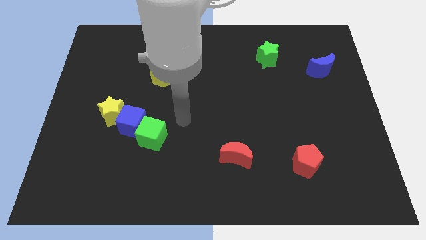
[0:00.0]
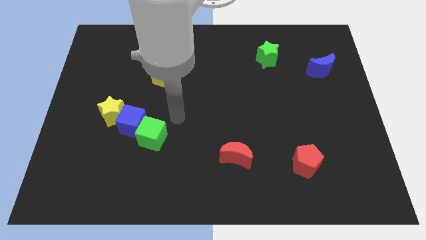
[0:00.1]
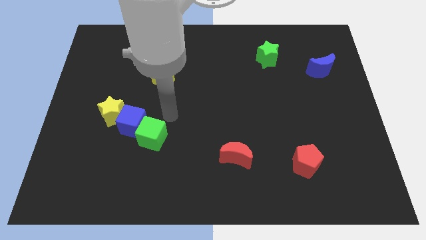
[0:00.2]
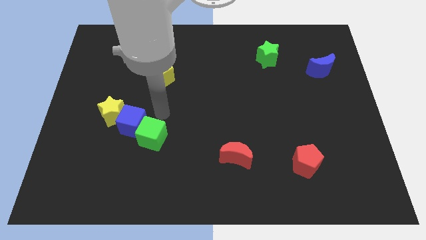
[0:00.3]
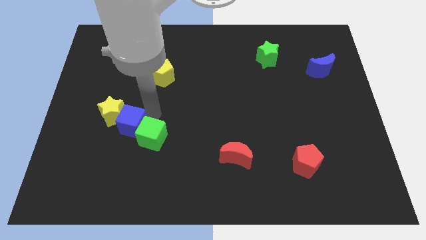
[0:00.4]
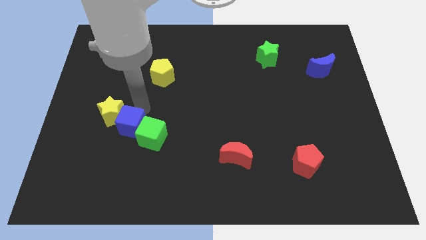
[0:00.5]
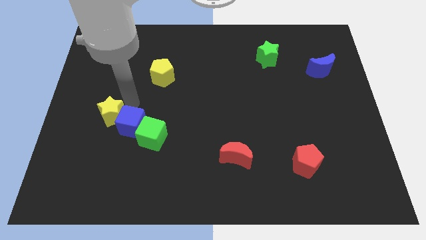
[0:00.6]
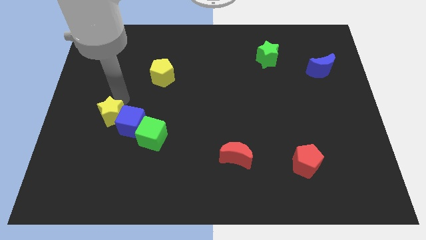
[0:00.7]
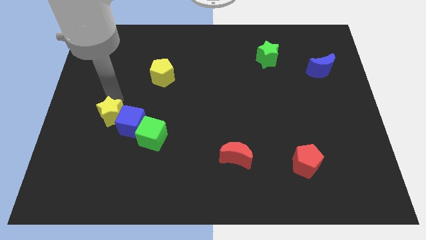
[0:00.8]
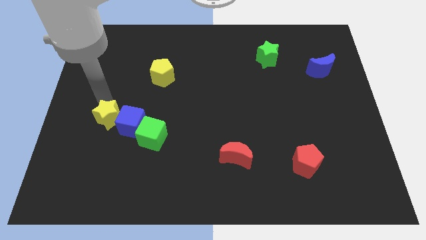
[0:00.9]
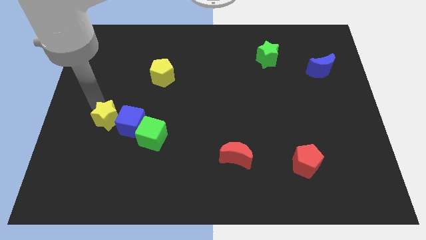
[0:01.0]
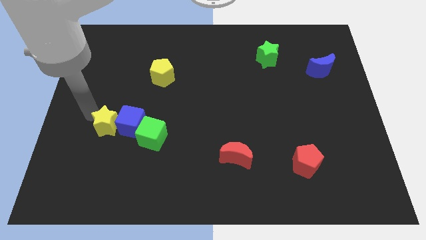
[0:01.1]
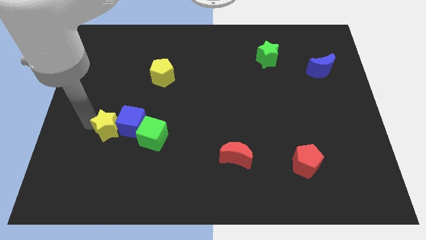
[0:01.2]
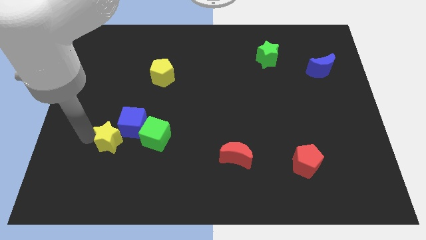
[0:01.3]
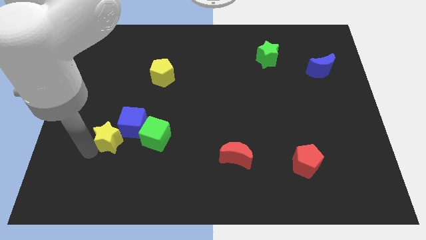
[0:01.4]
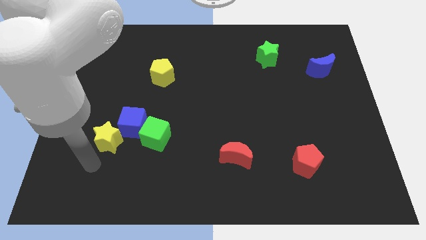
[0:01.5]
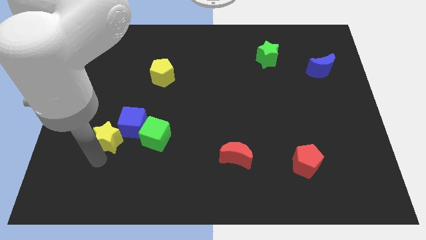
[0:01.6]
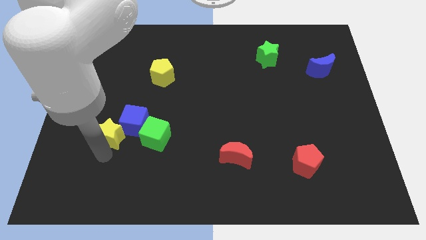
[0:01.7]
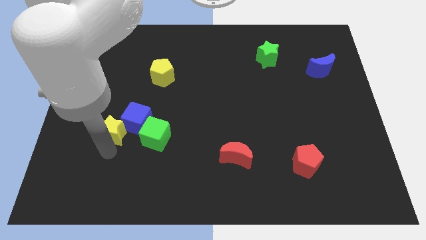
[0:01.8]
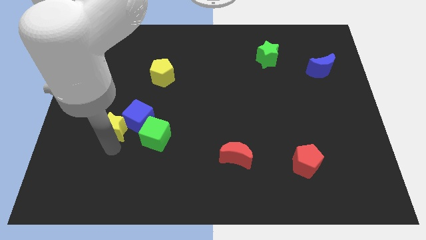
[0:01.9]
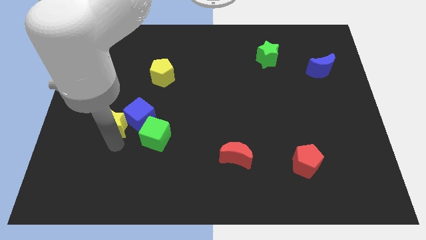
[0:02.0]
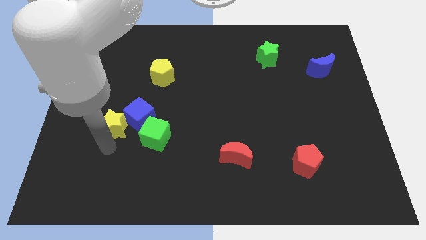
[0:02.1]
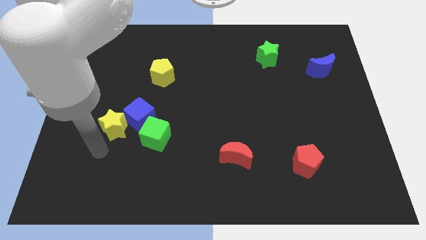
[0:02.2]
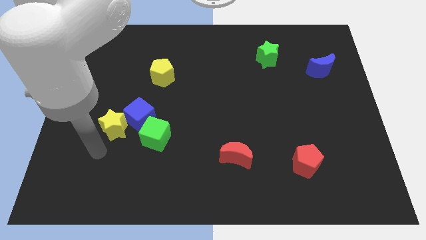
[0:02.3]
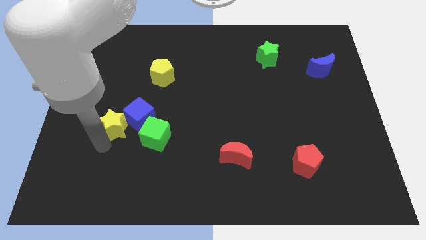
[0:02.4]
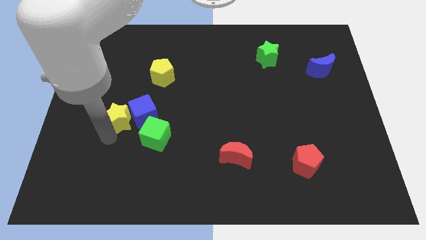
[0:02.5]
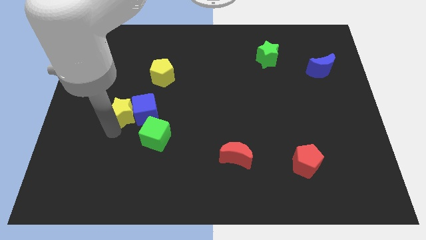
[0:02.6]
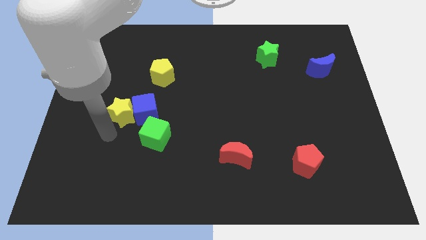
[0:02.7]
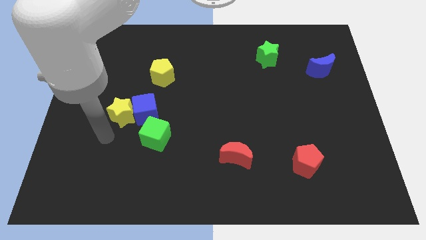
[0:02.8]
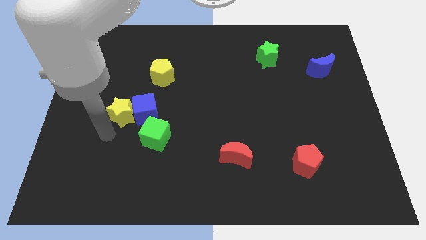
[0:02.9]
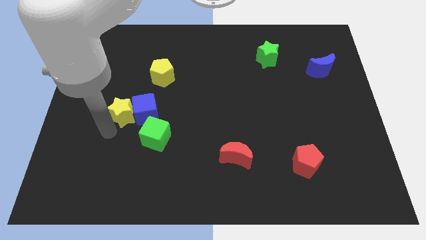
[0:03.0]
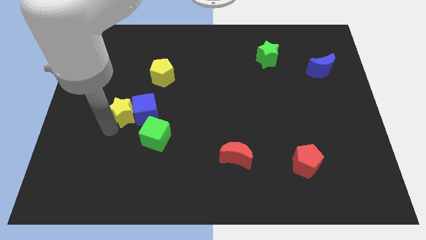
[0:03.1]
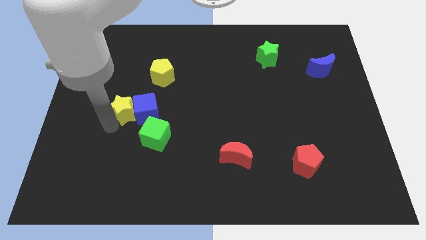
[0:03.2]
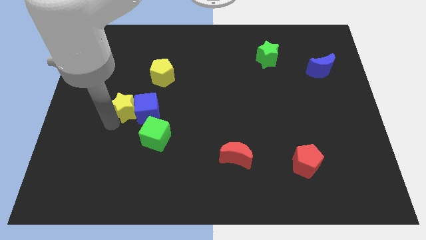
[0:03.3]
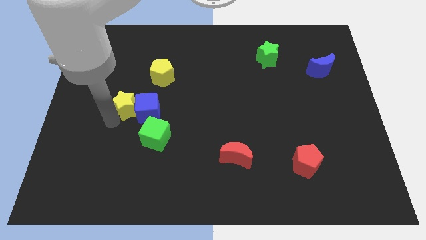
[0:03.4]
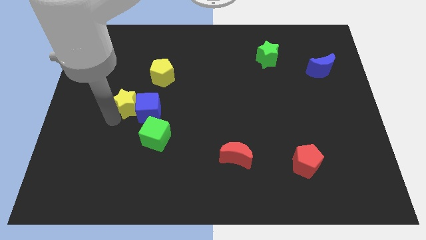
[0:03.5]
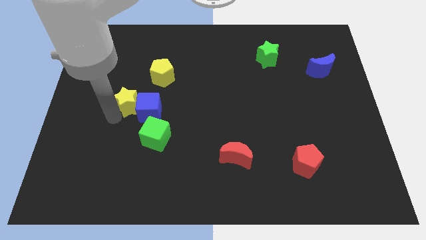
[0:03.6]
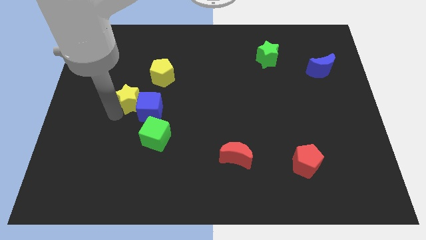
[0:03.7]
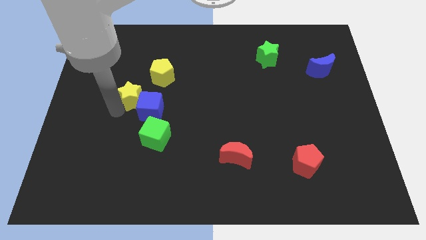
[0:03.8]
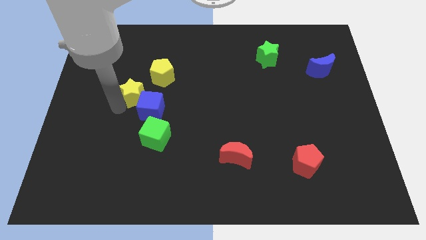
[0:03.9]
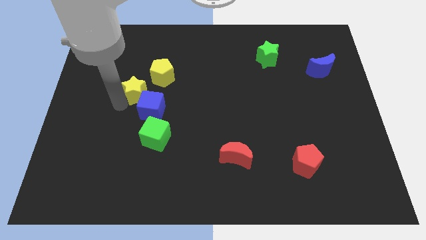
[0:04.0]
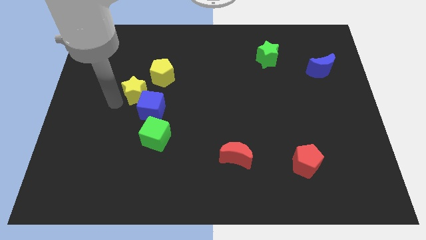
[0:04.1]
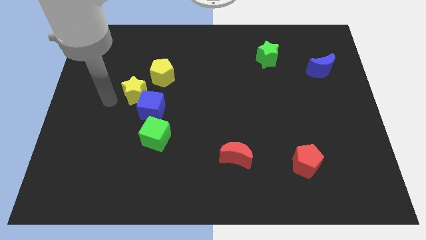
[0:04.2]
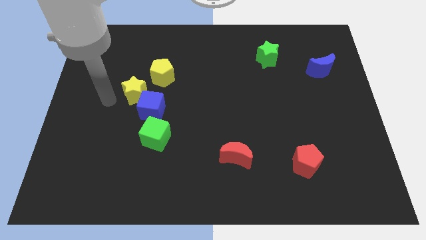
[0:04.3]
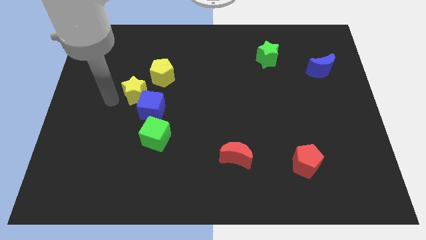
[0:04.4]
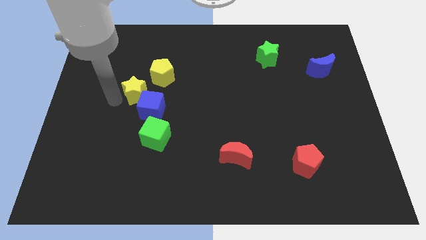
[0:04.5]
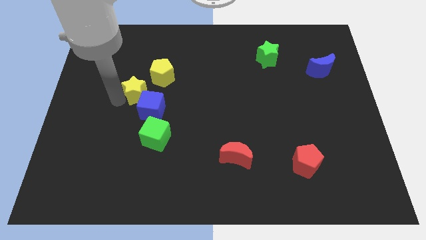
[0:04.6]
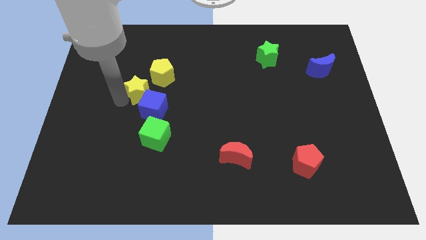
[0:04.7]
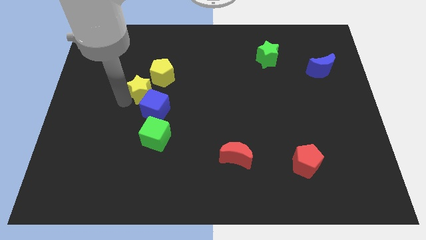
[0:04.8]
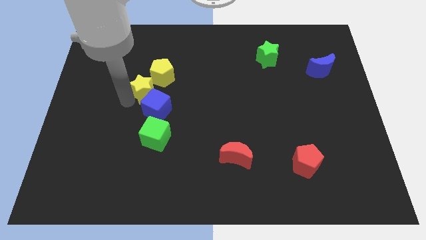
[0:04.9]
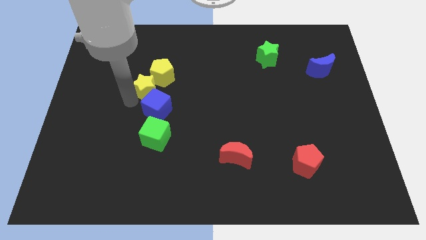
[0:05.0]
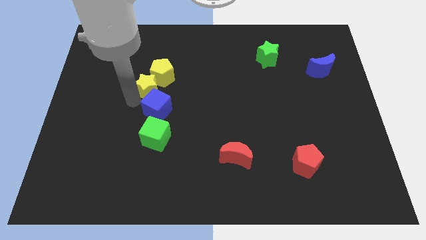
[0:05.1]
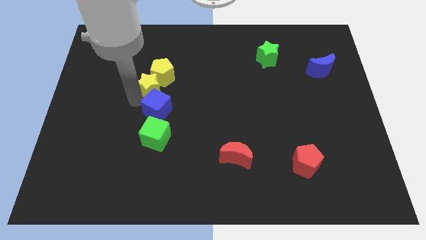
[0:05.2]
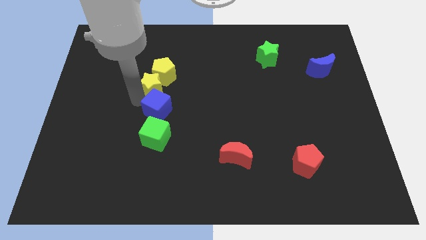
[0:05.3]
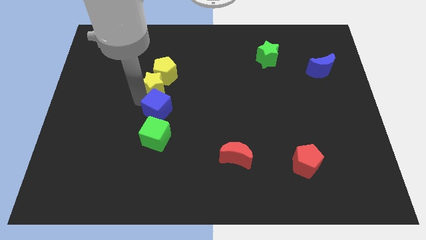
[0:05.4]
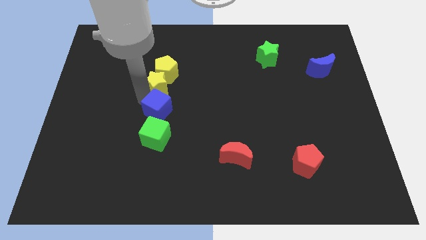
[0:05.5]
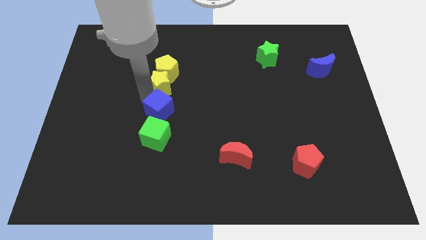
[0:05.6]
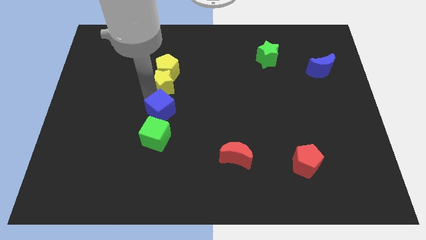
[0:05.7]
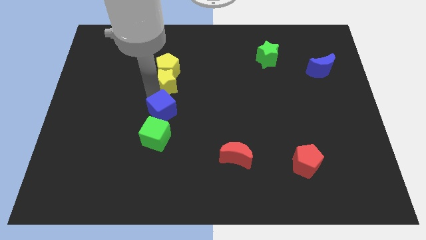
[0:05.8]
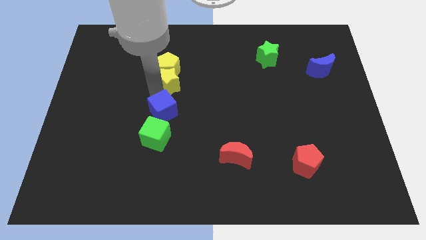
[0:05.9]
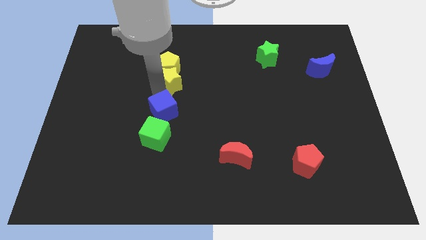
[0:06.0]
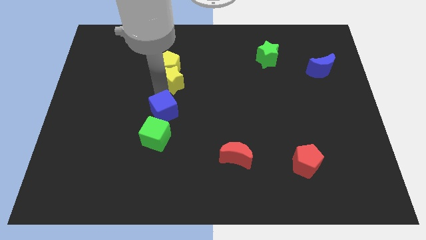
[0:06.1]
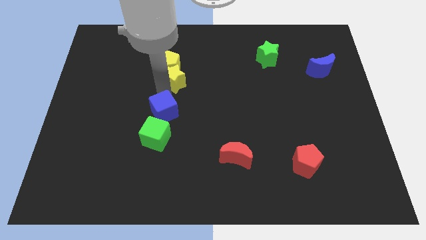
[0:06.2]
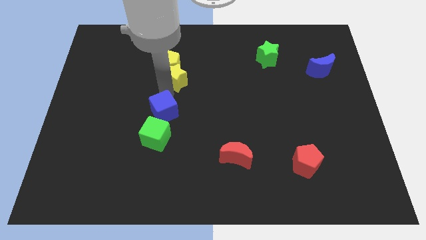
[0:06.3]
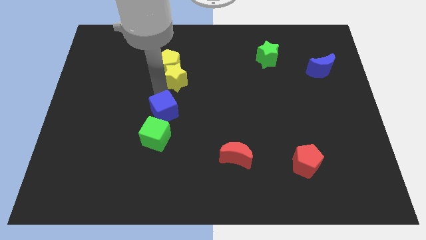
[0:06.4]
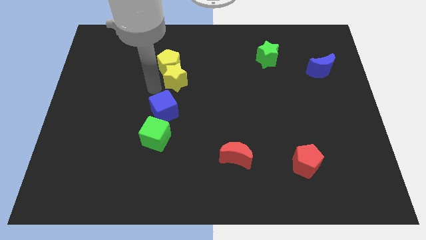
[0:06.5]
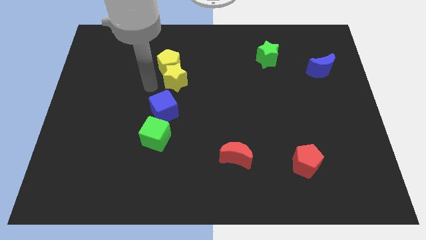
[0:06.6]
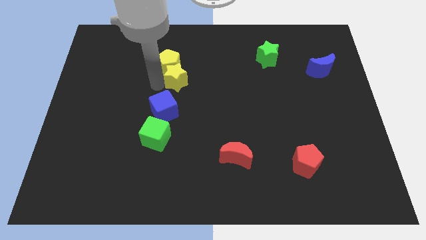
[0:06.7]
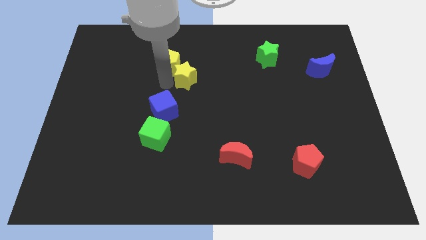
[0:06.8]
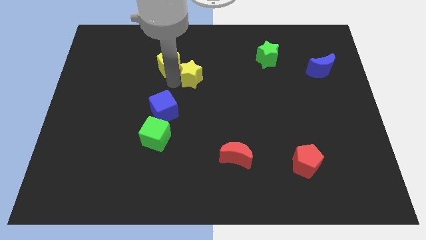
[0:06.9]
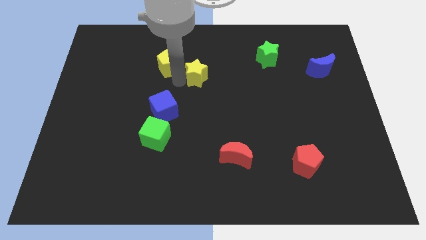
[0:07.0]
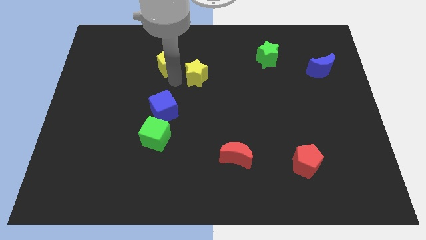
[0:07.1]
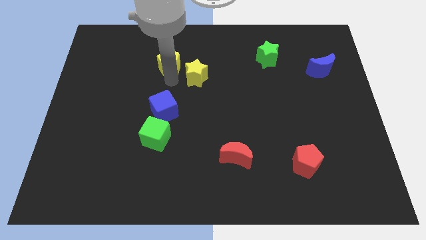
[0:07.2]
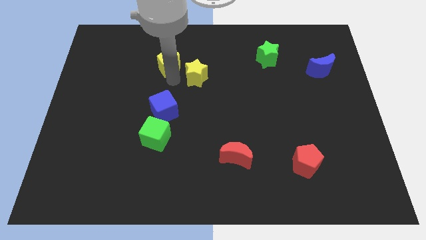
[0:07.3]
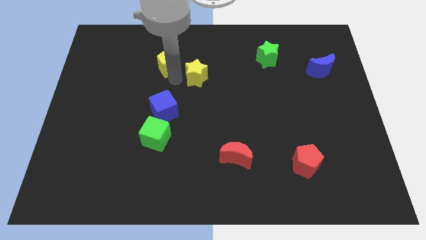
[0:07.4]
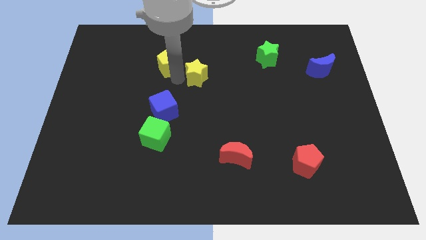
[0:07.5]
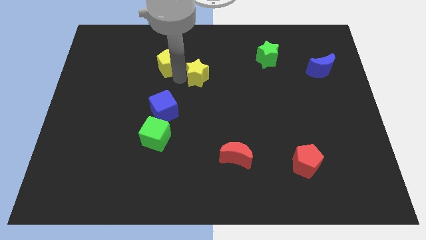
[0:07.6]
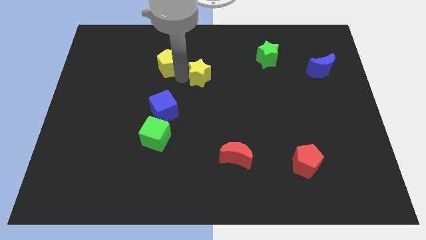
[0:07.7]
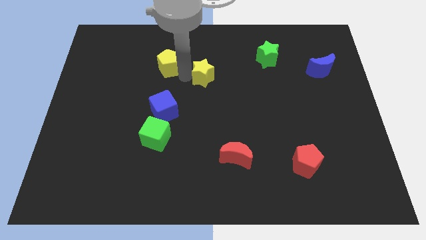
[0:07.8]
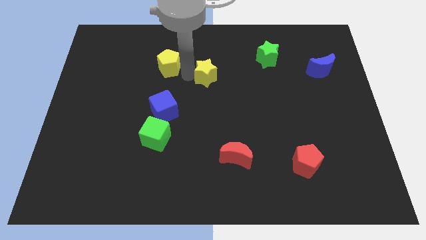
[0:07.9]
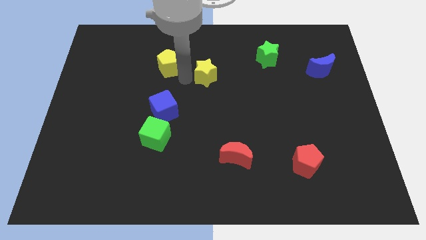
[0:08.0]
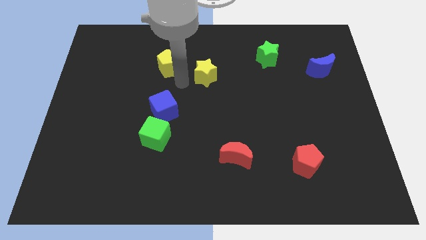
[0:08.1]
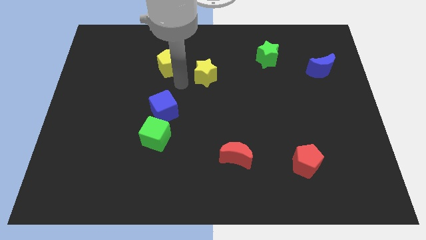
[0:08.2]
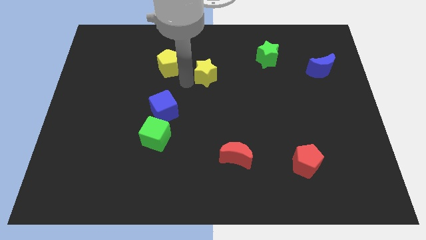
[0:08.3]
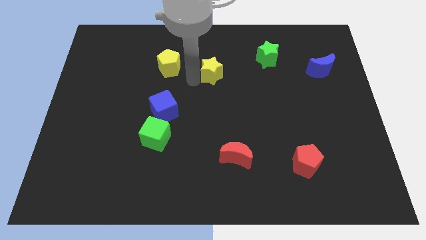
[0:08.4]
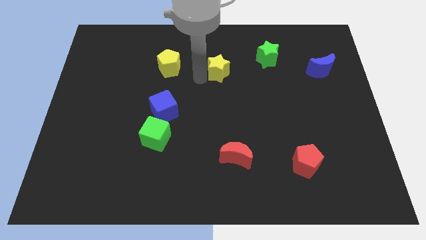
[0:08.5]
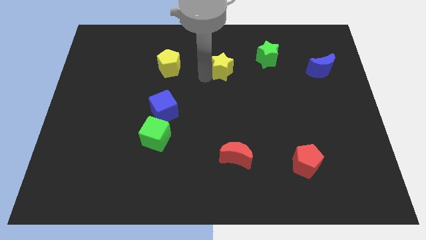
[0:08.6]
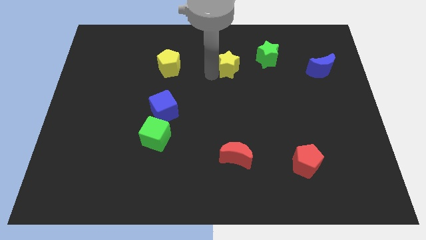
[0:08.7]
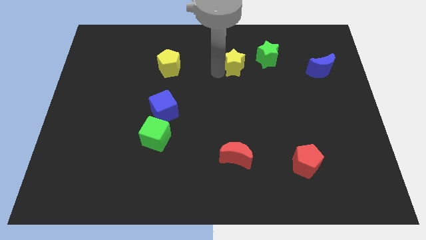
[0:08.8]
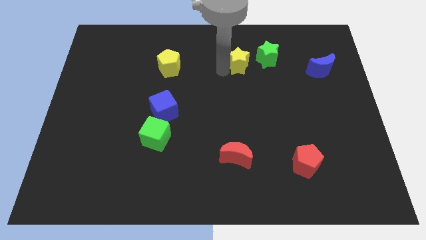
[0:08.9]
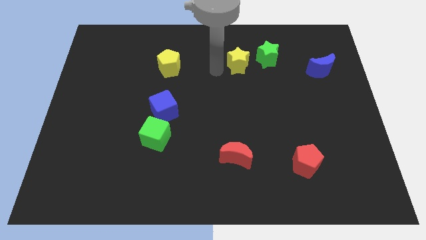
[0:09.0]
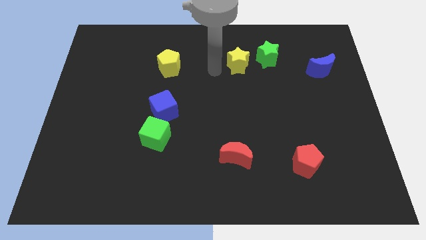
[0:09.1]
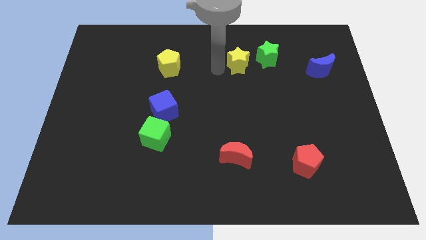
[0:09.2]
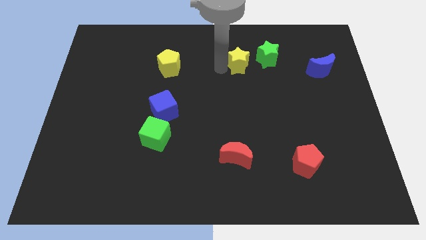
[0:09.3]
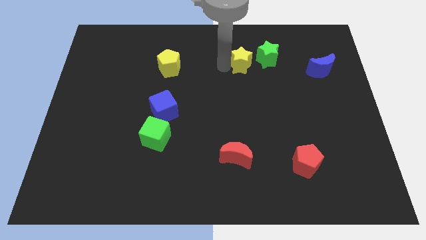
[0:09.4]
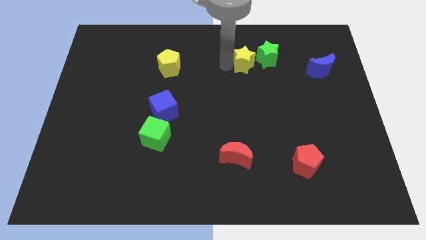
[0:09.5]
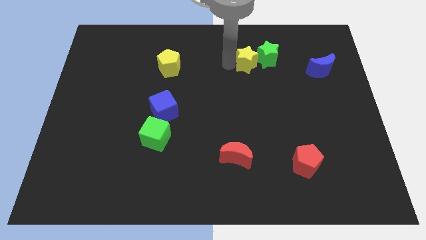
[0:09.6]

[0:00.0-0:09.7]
move the yellow star towards the green star
